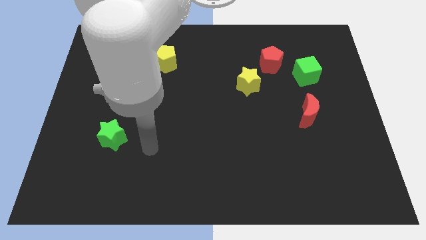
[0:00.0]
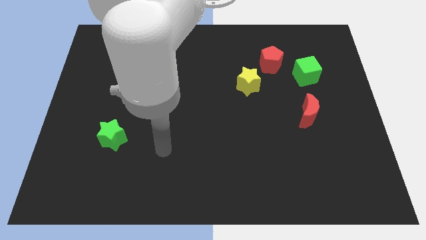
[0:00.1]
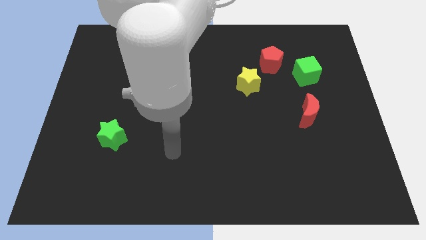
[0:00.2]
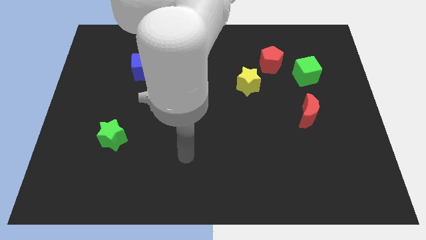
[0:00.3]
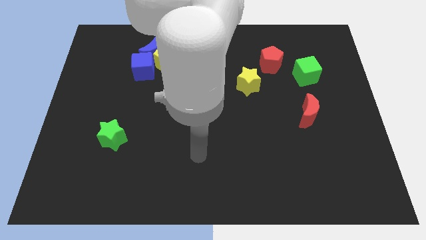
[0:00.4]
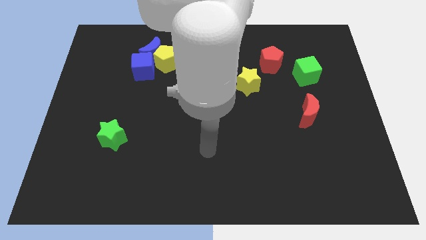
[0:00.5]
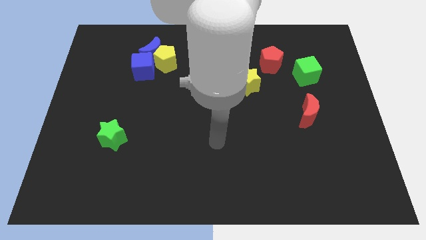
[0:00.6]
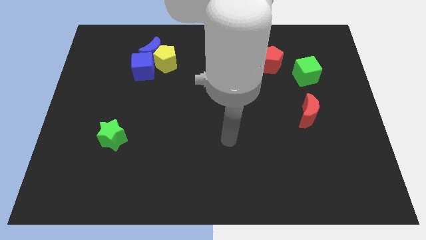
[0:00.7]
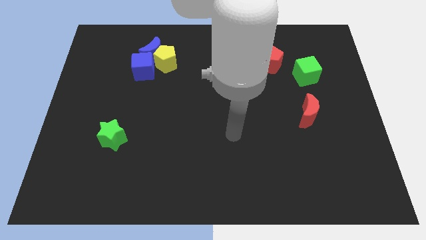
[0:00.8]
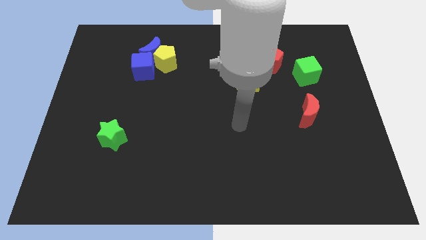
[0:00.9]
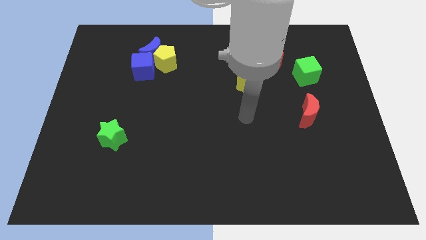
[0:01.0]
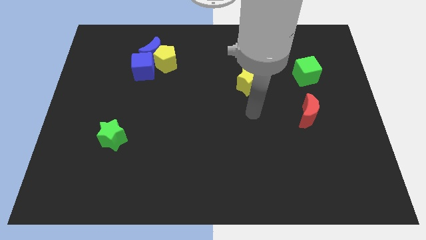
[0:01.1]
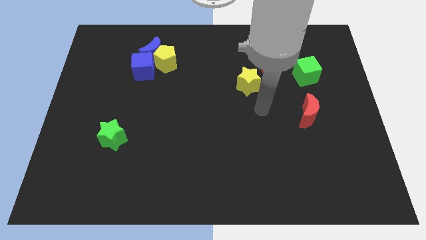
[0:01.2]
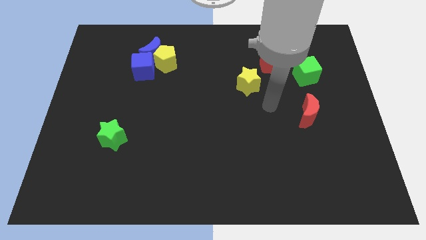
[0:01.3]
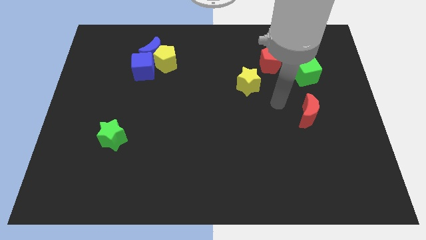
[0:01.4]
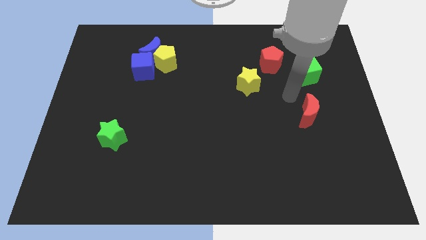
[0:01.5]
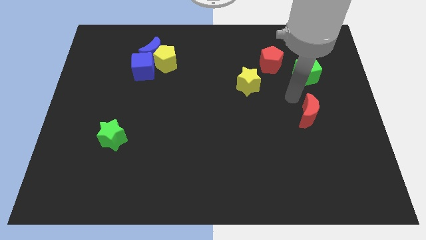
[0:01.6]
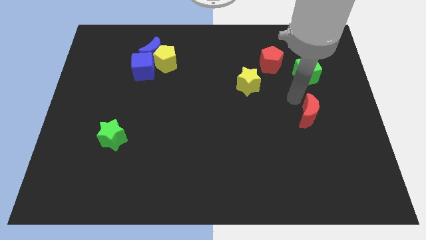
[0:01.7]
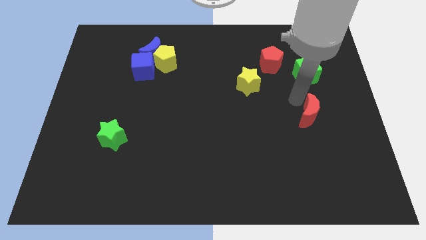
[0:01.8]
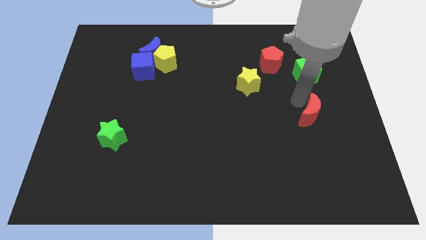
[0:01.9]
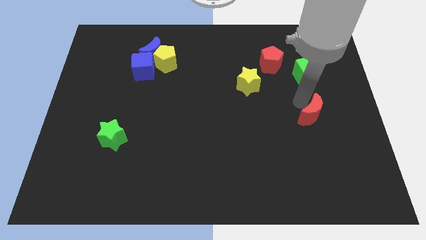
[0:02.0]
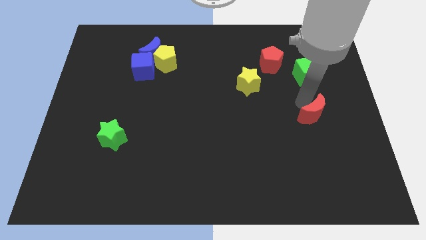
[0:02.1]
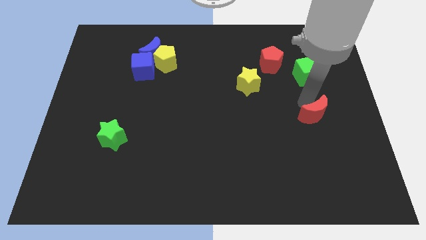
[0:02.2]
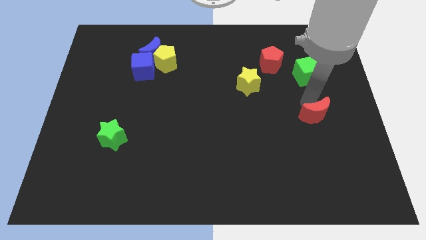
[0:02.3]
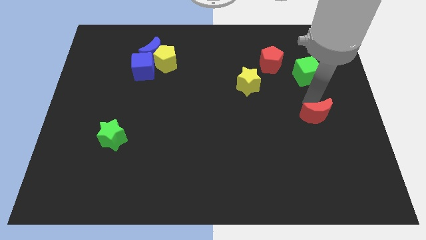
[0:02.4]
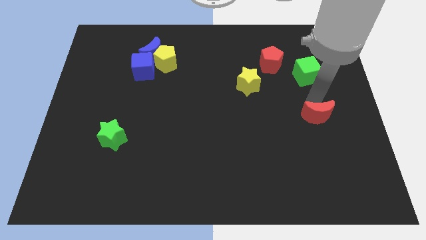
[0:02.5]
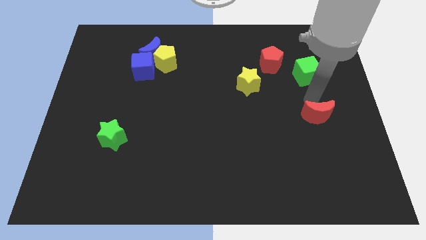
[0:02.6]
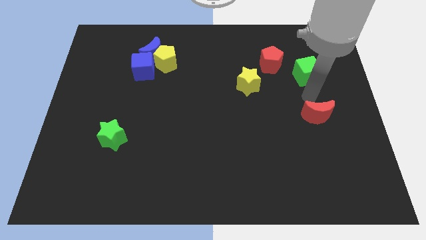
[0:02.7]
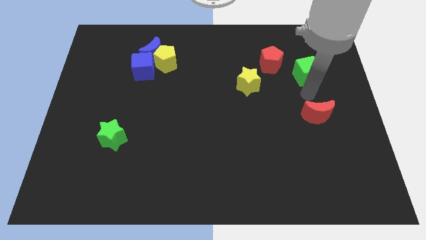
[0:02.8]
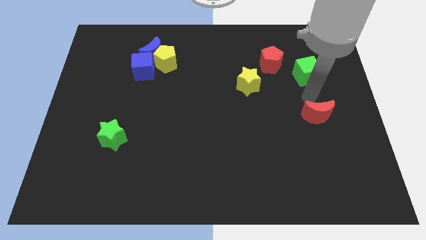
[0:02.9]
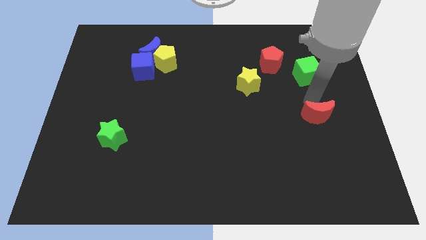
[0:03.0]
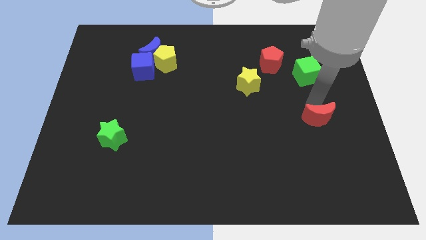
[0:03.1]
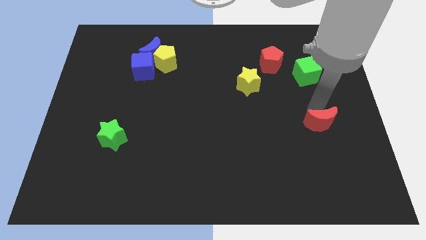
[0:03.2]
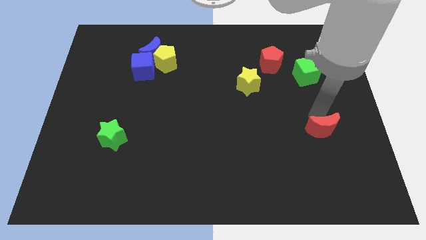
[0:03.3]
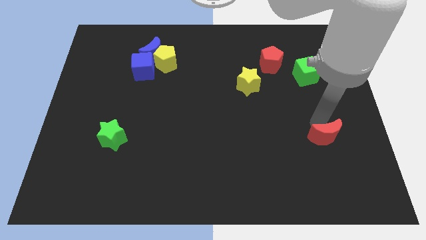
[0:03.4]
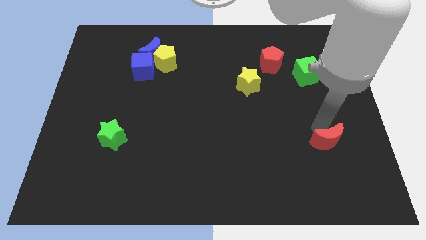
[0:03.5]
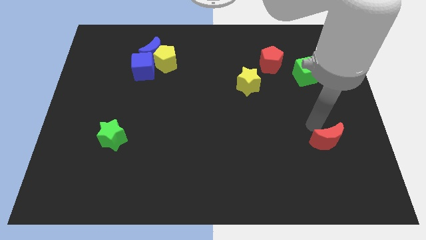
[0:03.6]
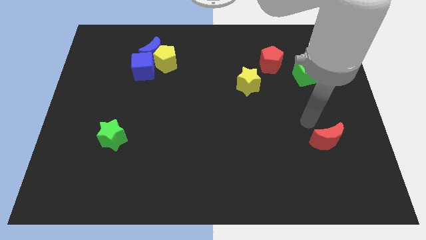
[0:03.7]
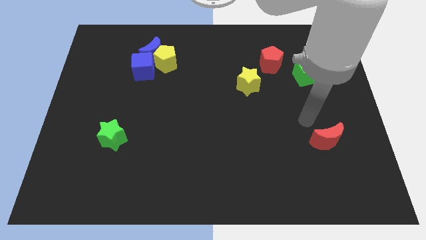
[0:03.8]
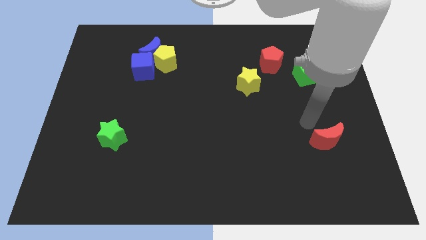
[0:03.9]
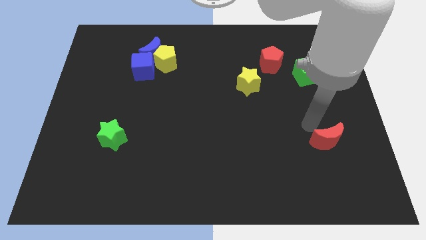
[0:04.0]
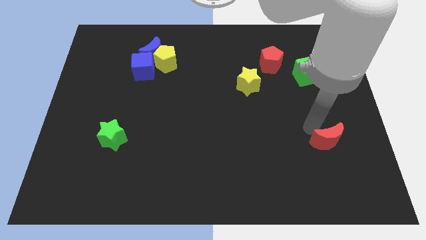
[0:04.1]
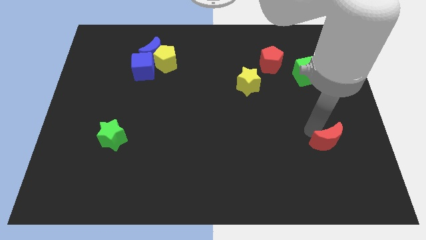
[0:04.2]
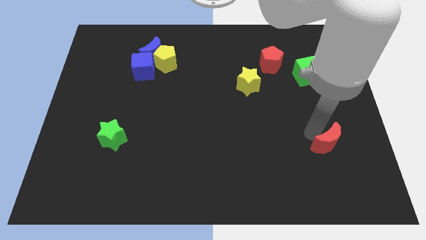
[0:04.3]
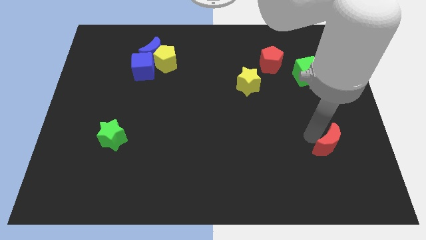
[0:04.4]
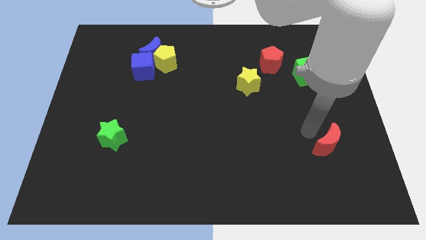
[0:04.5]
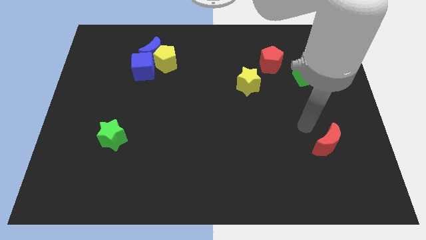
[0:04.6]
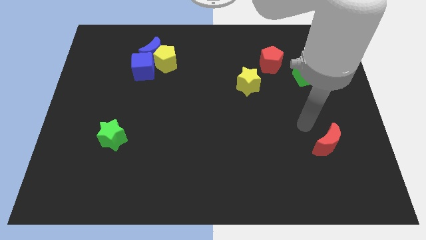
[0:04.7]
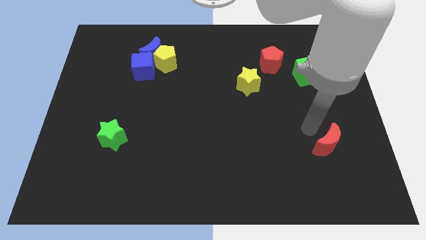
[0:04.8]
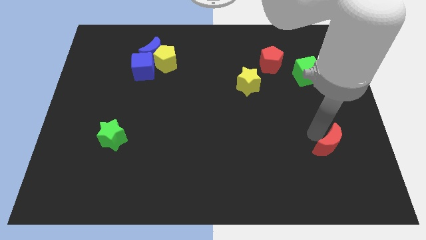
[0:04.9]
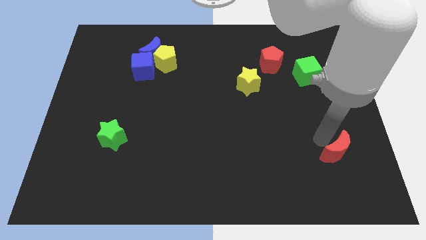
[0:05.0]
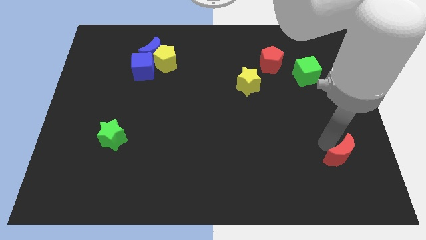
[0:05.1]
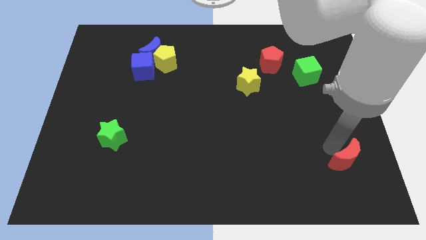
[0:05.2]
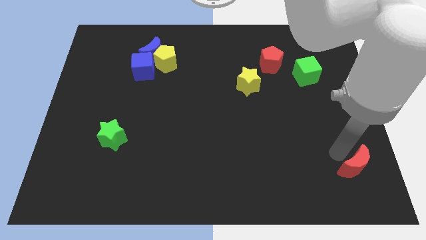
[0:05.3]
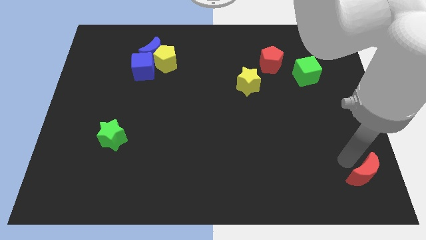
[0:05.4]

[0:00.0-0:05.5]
put the red moon to the bottom right of the board
